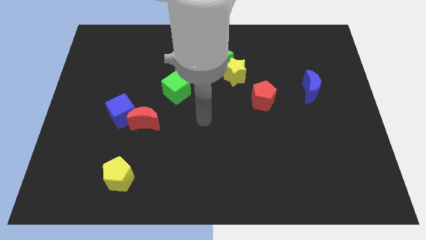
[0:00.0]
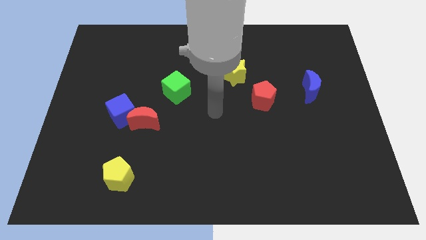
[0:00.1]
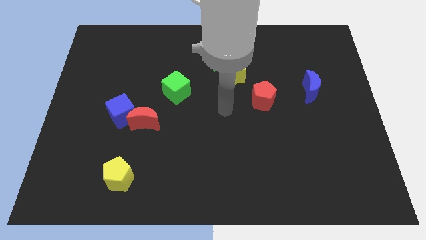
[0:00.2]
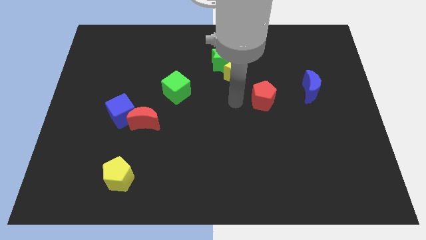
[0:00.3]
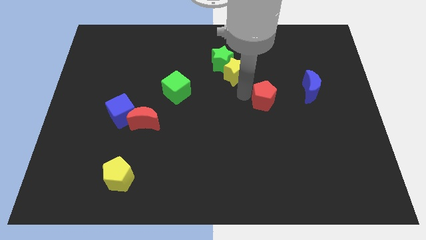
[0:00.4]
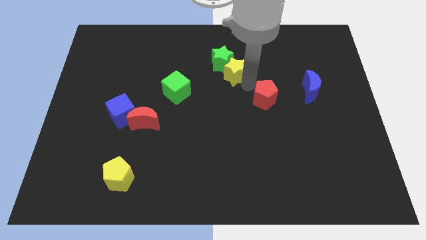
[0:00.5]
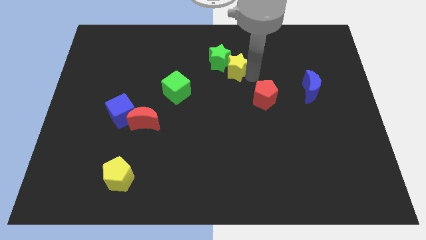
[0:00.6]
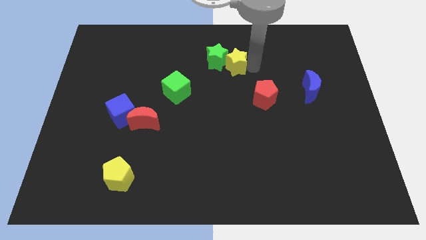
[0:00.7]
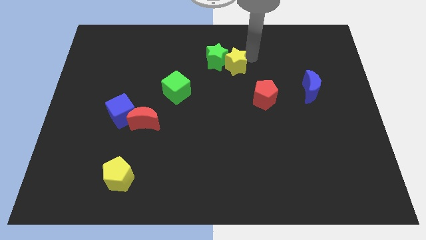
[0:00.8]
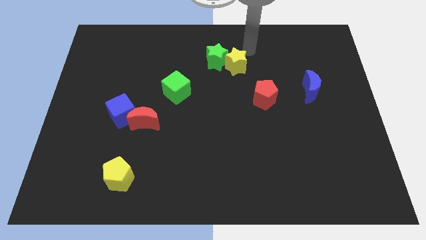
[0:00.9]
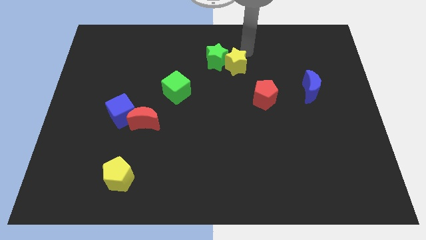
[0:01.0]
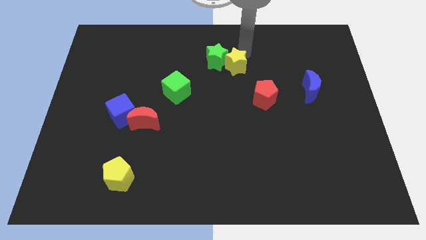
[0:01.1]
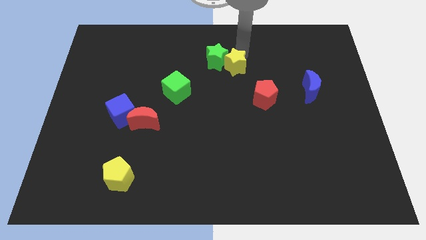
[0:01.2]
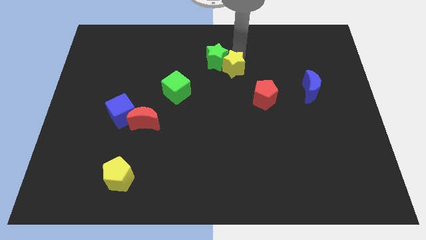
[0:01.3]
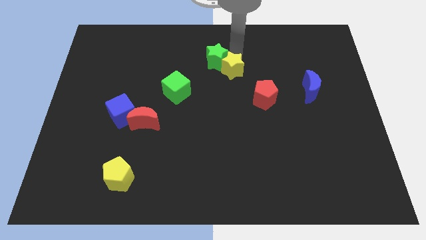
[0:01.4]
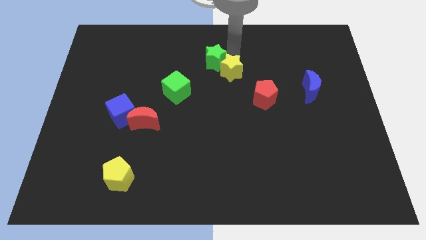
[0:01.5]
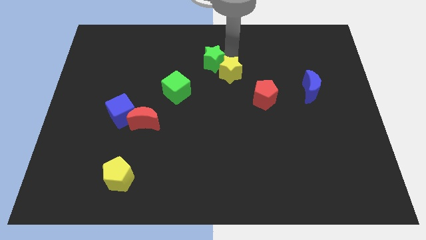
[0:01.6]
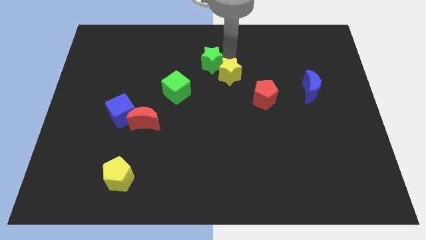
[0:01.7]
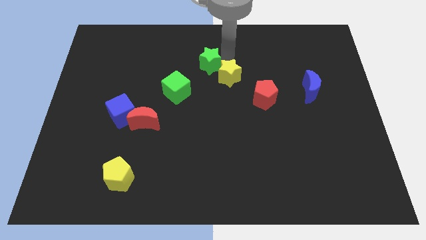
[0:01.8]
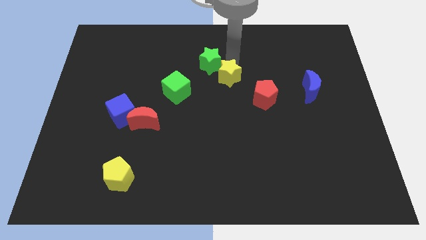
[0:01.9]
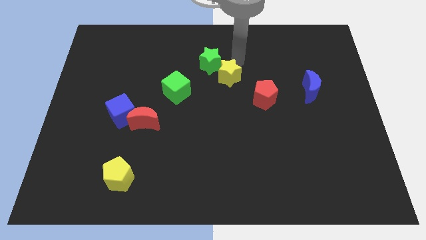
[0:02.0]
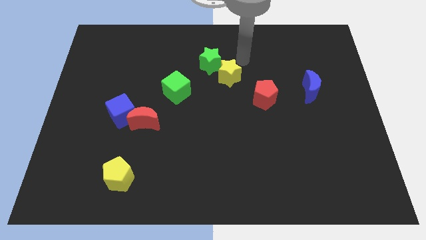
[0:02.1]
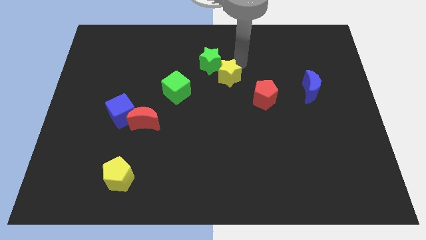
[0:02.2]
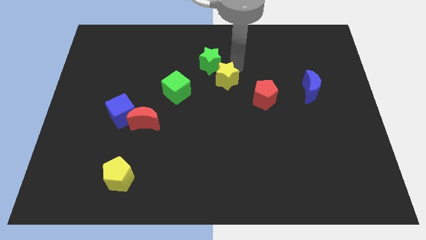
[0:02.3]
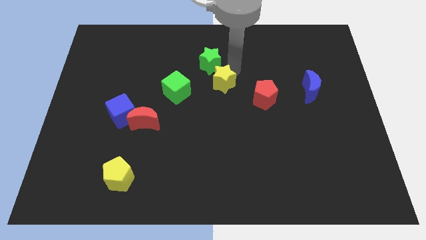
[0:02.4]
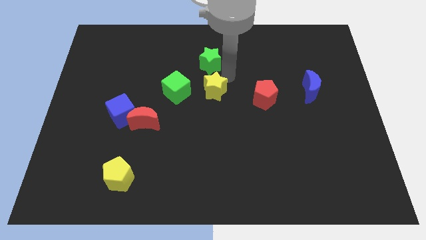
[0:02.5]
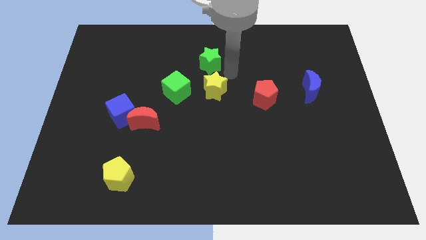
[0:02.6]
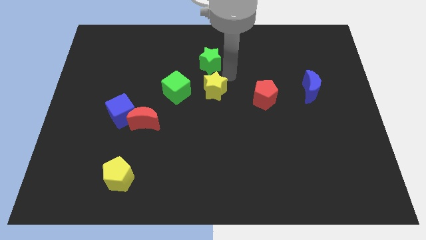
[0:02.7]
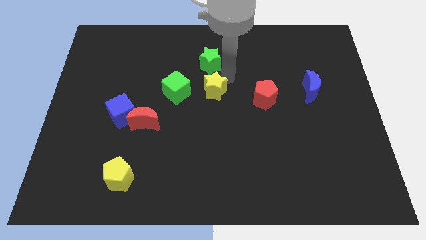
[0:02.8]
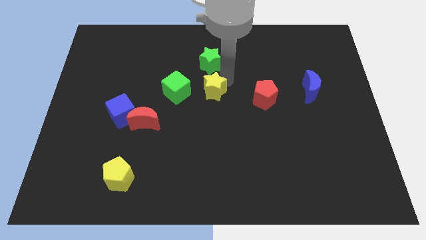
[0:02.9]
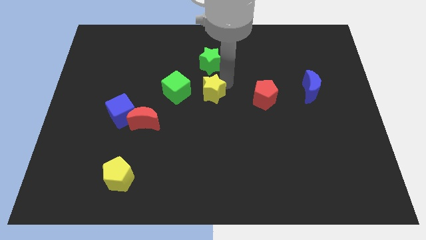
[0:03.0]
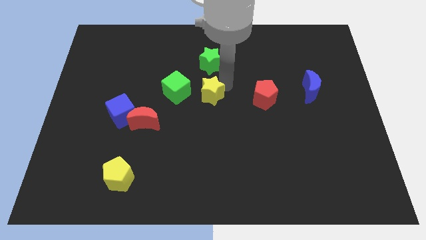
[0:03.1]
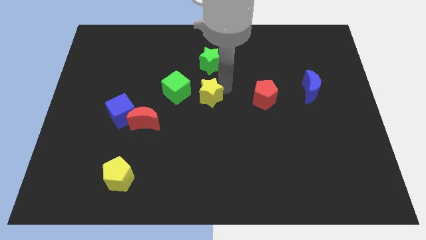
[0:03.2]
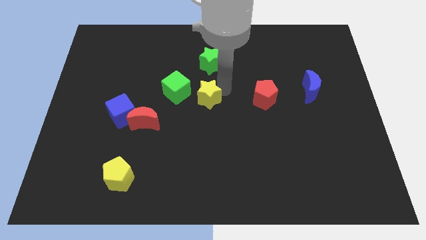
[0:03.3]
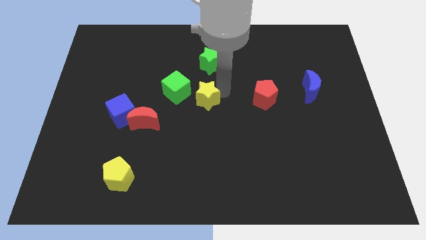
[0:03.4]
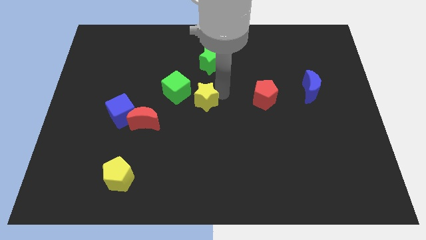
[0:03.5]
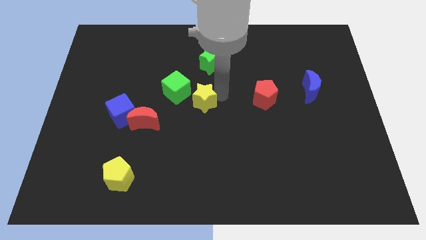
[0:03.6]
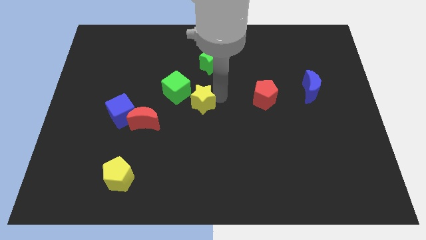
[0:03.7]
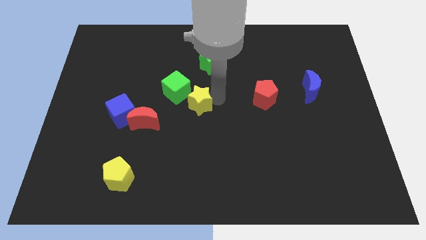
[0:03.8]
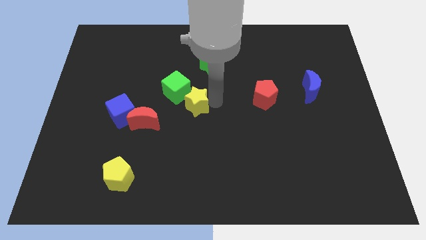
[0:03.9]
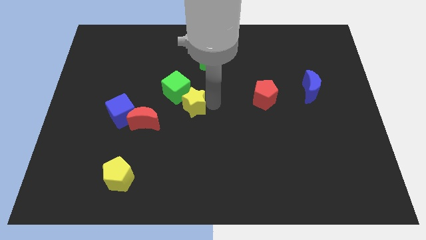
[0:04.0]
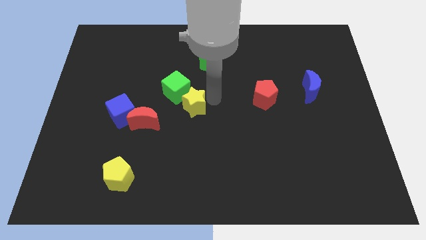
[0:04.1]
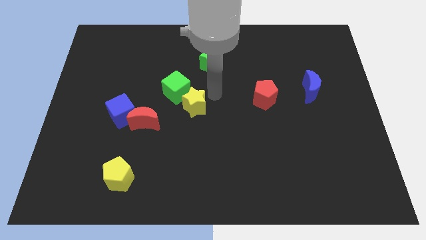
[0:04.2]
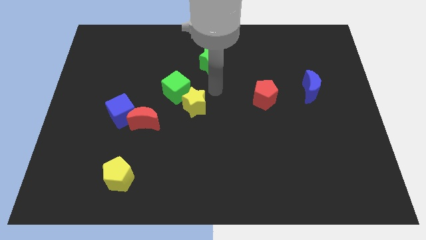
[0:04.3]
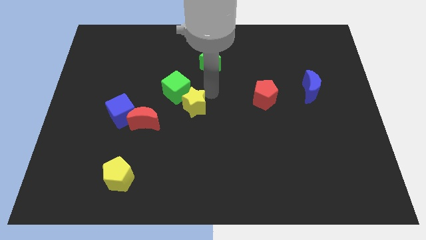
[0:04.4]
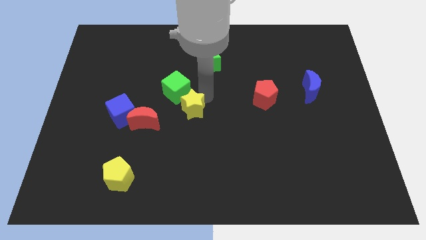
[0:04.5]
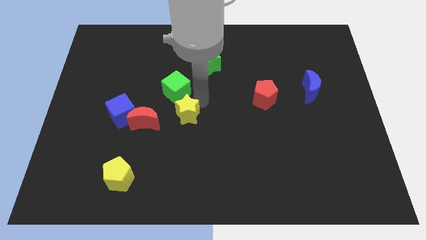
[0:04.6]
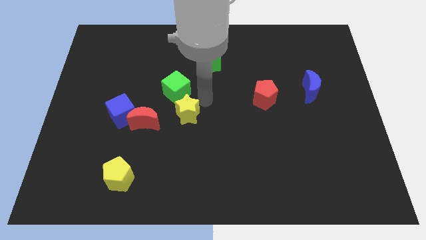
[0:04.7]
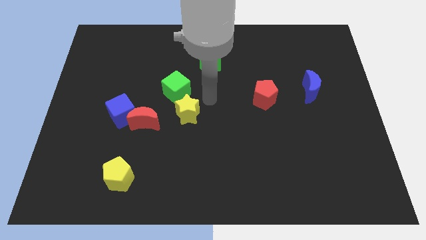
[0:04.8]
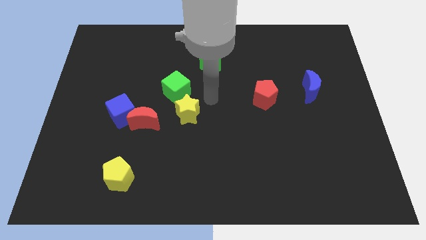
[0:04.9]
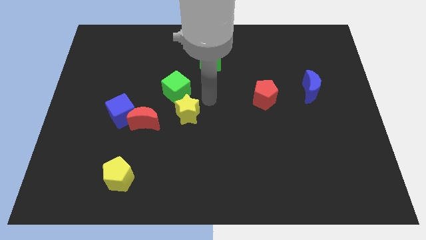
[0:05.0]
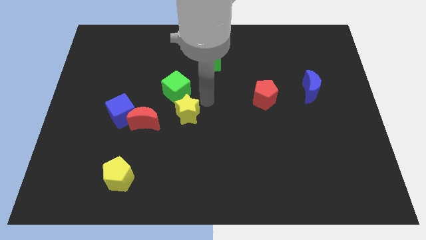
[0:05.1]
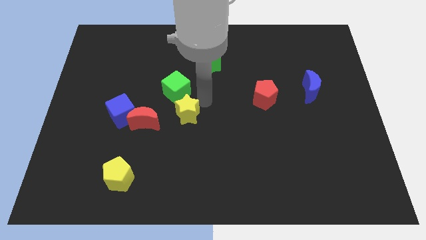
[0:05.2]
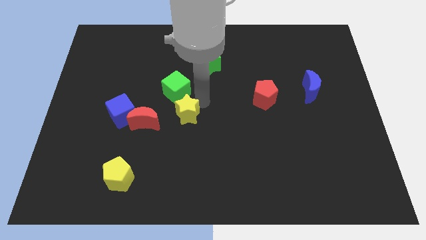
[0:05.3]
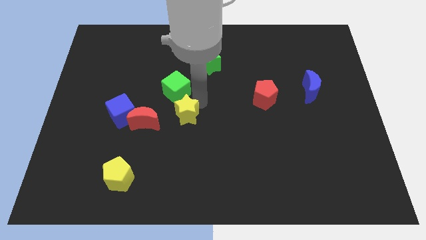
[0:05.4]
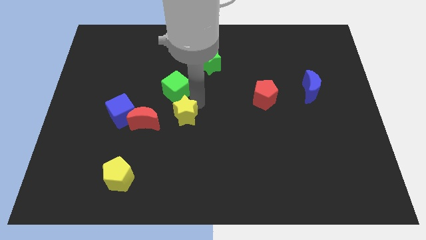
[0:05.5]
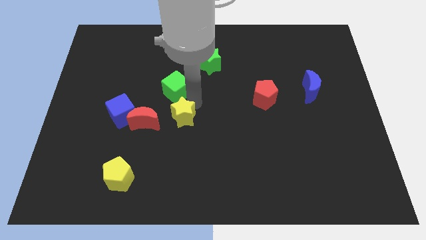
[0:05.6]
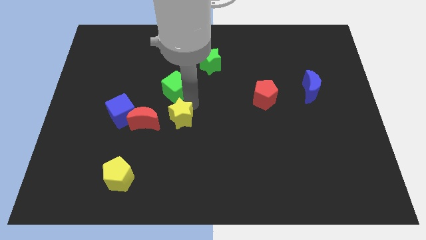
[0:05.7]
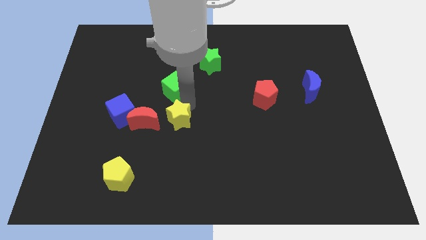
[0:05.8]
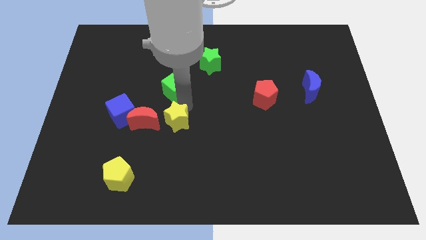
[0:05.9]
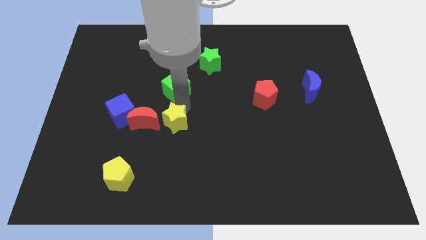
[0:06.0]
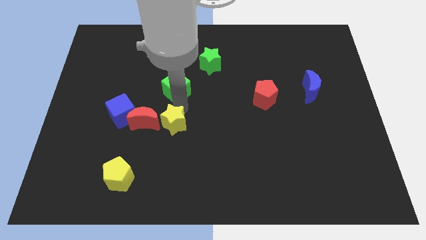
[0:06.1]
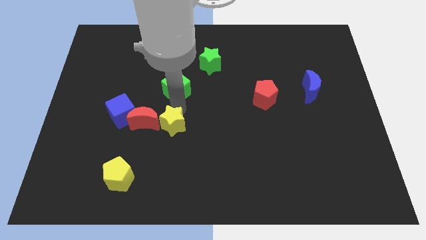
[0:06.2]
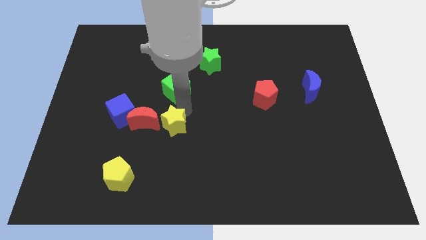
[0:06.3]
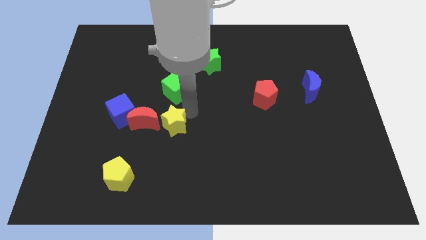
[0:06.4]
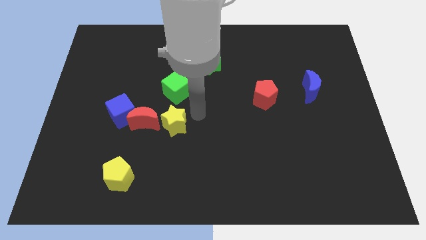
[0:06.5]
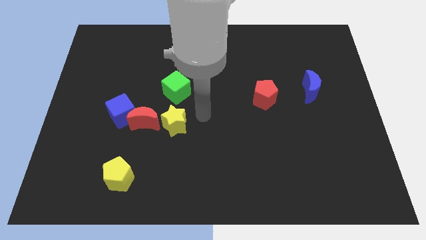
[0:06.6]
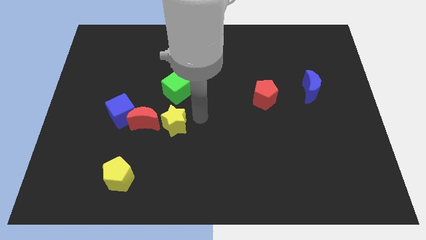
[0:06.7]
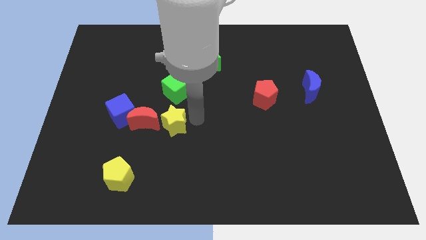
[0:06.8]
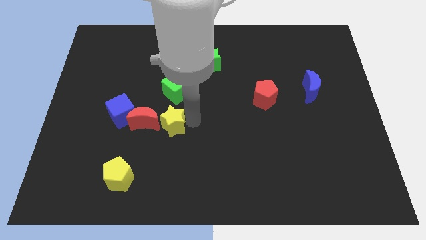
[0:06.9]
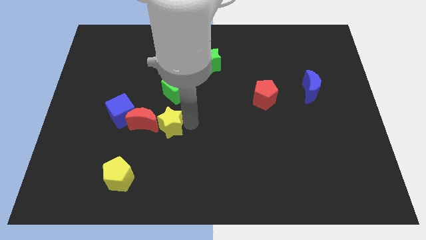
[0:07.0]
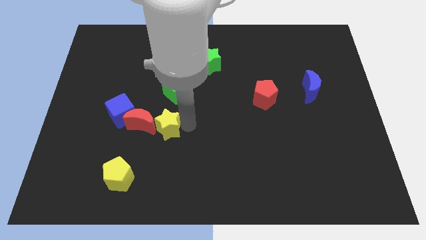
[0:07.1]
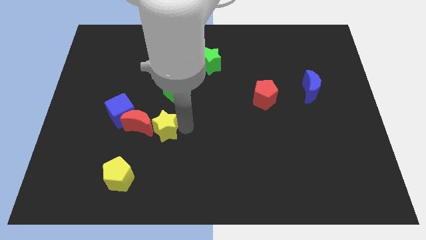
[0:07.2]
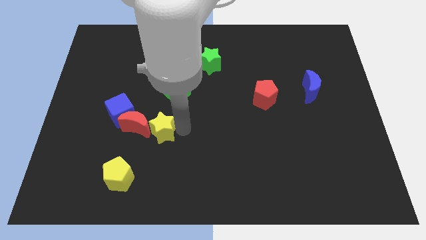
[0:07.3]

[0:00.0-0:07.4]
push the yellow star diagonally down and to the right of the blue cube

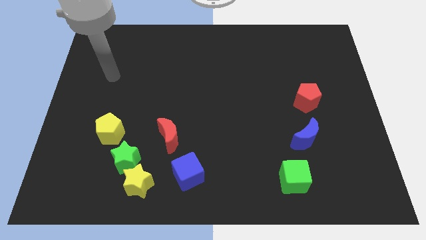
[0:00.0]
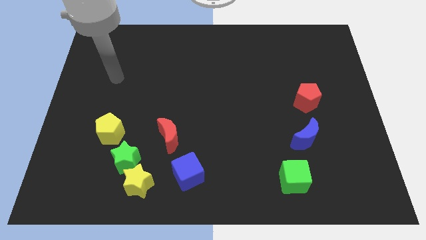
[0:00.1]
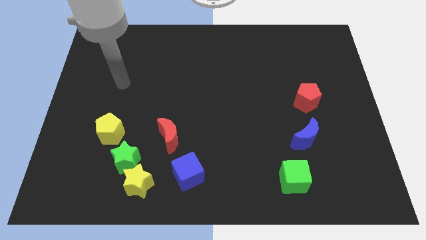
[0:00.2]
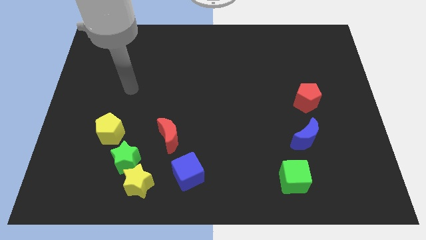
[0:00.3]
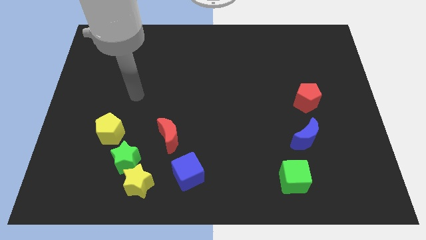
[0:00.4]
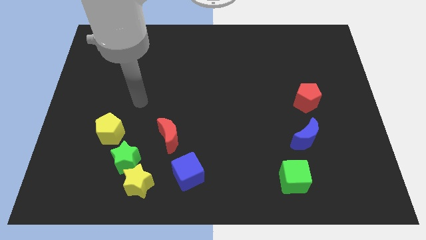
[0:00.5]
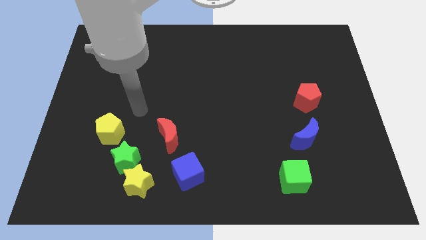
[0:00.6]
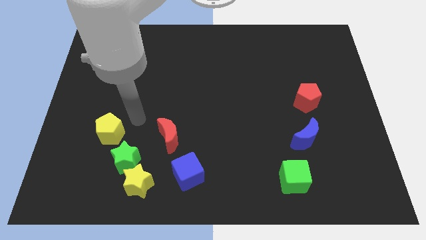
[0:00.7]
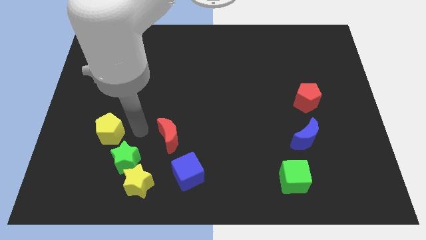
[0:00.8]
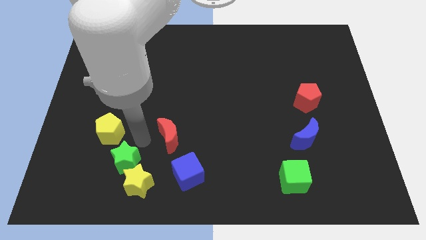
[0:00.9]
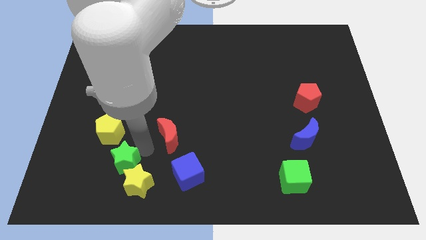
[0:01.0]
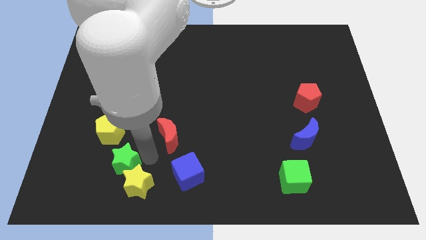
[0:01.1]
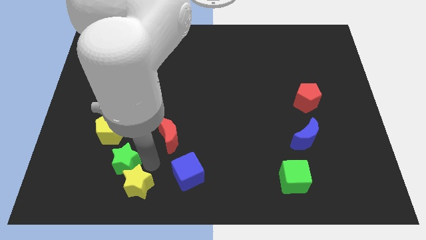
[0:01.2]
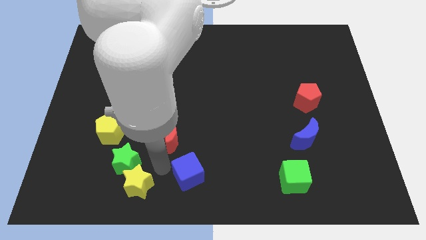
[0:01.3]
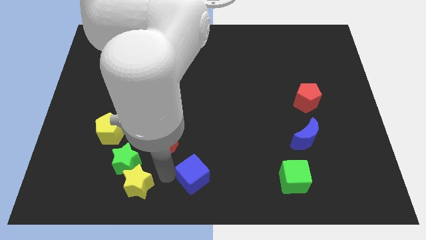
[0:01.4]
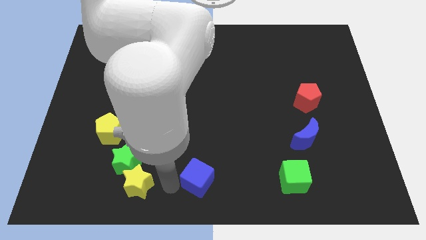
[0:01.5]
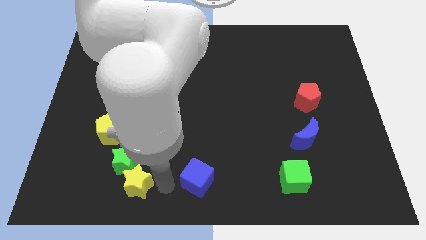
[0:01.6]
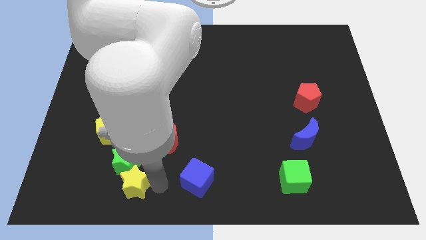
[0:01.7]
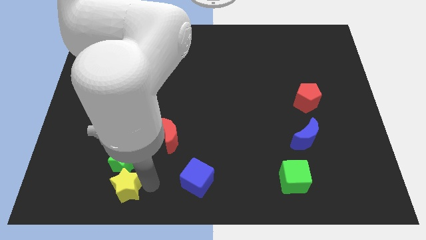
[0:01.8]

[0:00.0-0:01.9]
slide the yellow star to the bottom left of the green star
